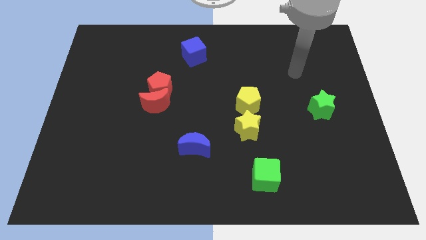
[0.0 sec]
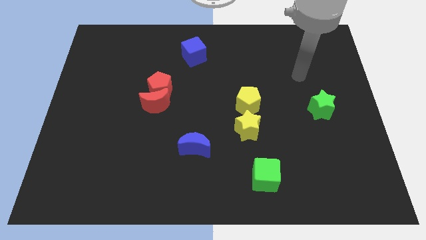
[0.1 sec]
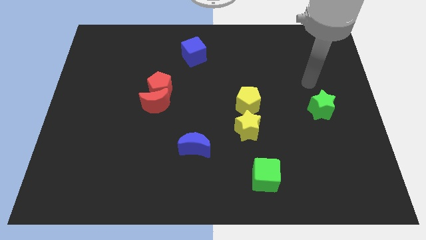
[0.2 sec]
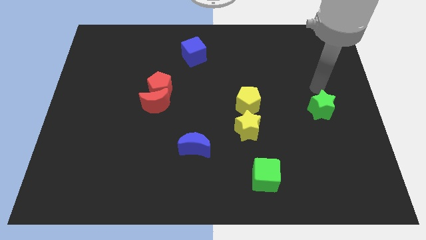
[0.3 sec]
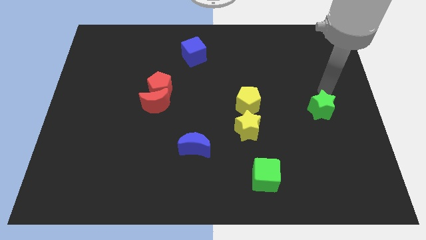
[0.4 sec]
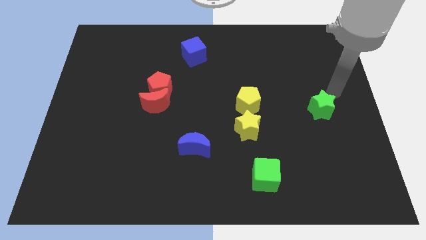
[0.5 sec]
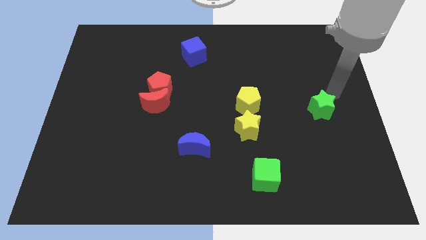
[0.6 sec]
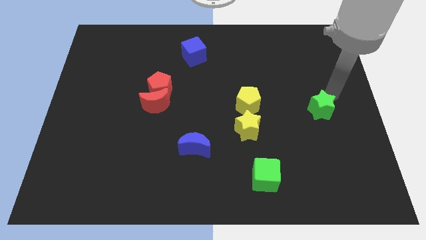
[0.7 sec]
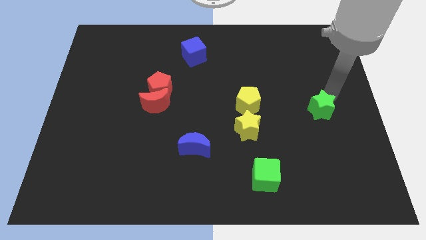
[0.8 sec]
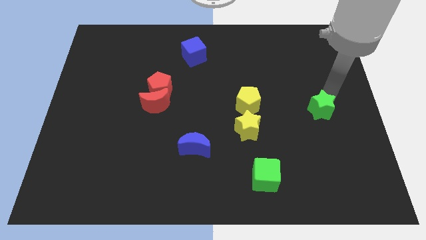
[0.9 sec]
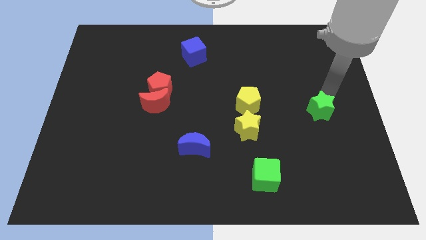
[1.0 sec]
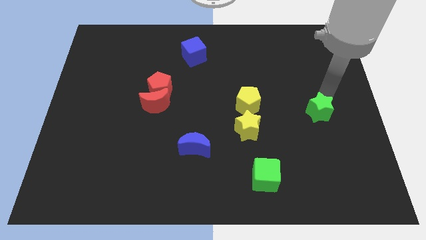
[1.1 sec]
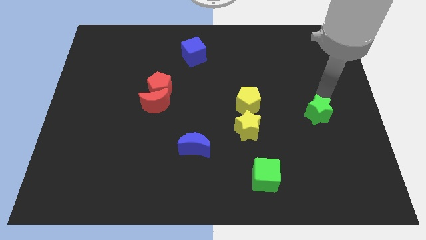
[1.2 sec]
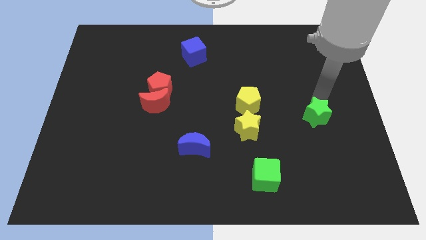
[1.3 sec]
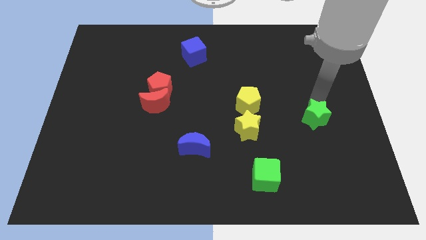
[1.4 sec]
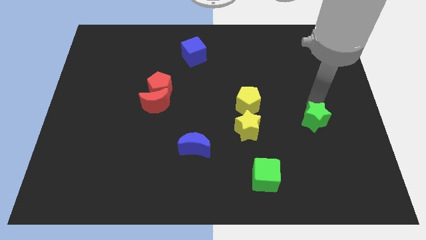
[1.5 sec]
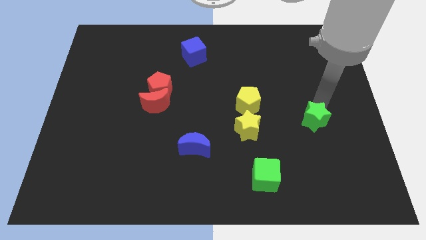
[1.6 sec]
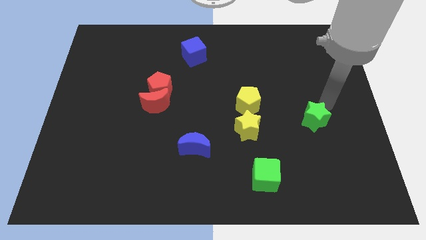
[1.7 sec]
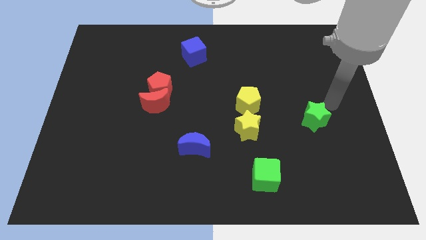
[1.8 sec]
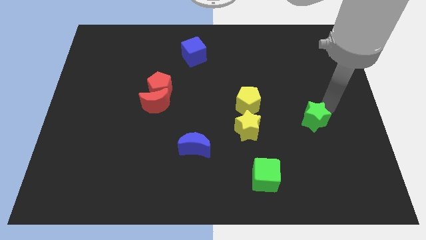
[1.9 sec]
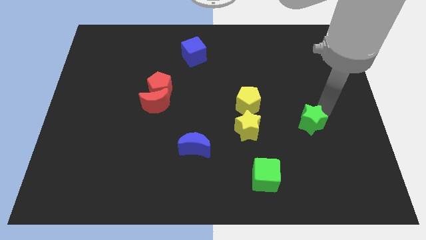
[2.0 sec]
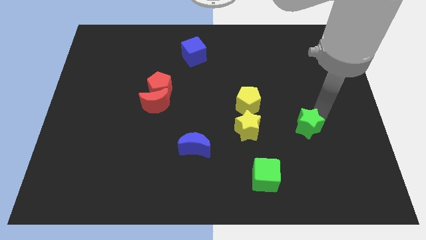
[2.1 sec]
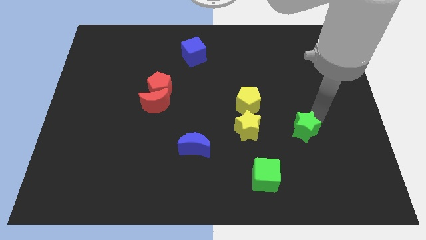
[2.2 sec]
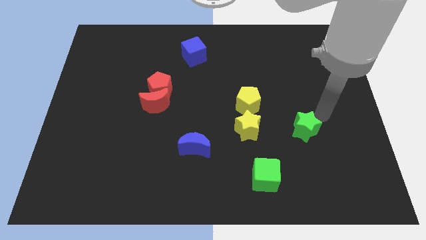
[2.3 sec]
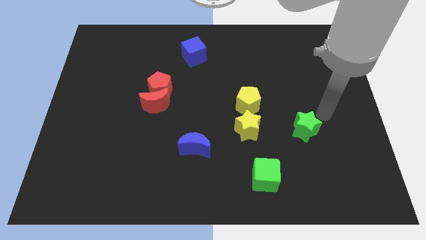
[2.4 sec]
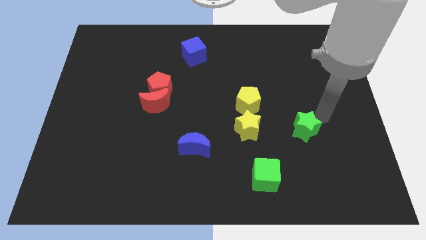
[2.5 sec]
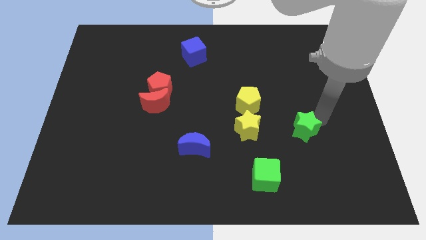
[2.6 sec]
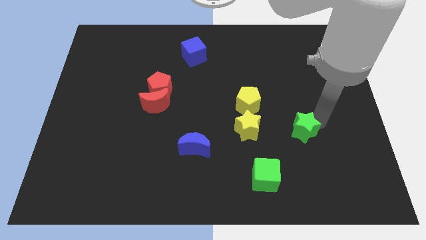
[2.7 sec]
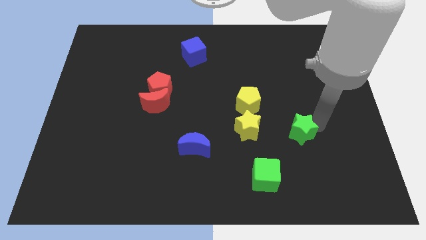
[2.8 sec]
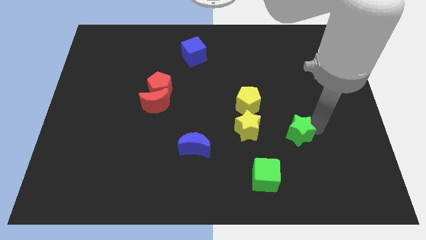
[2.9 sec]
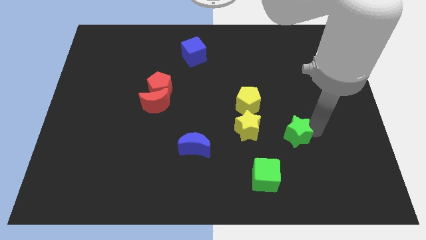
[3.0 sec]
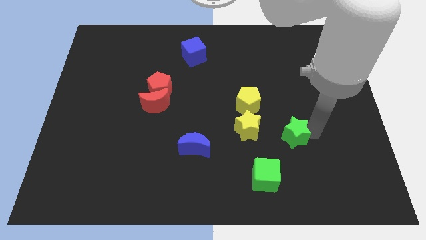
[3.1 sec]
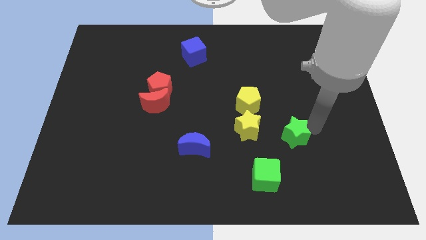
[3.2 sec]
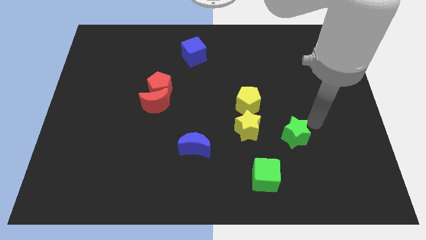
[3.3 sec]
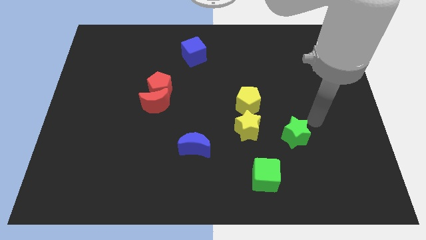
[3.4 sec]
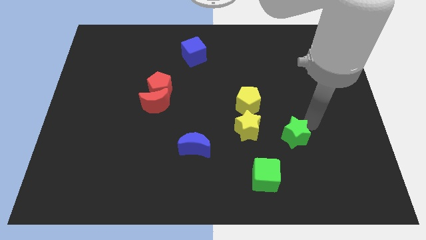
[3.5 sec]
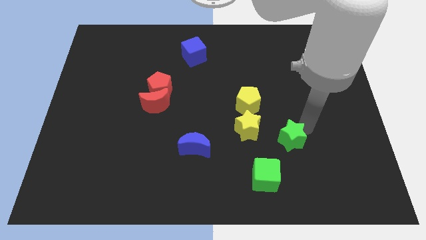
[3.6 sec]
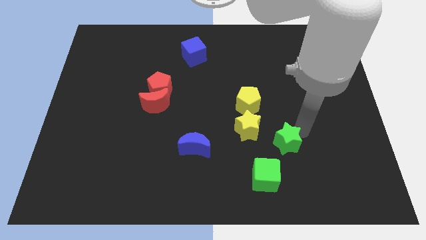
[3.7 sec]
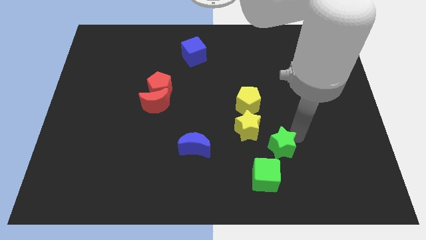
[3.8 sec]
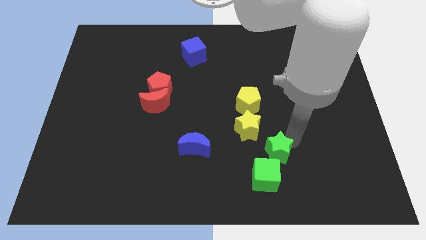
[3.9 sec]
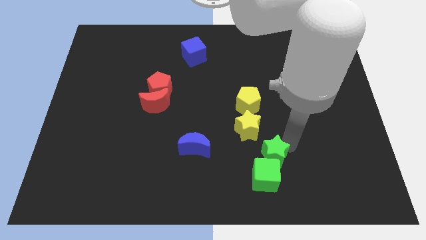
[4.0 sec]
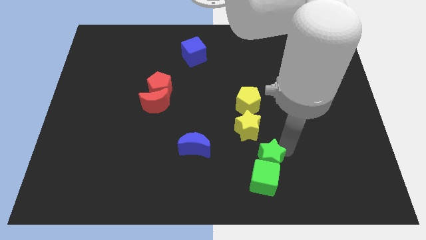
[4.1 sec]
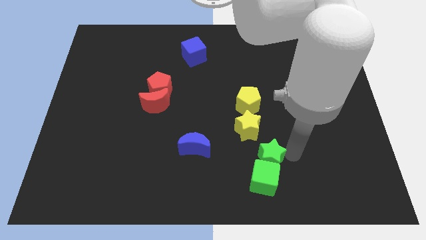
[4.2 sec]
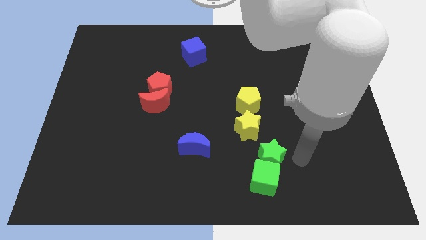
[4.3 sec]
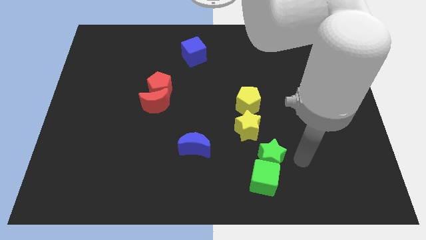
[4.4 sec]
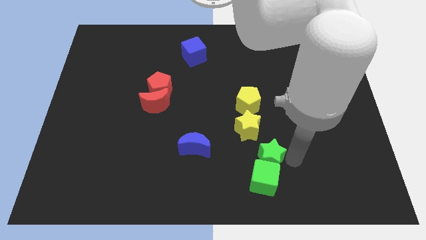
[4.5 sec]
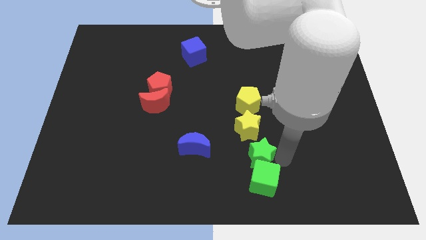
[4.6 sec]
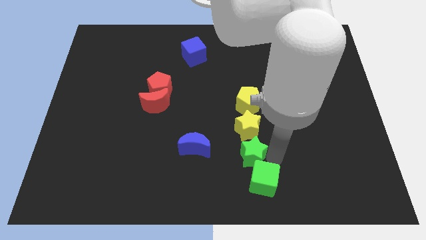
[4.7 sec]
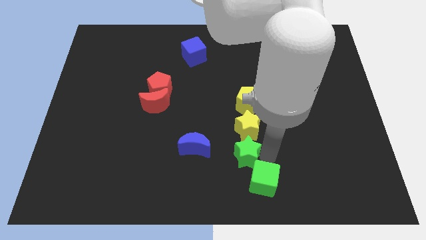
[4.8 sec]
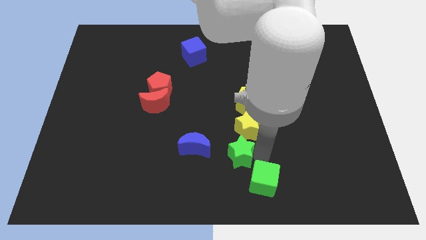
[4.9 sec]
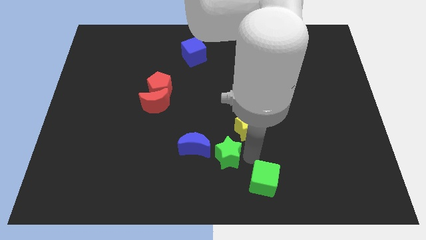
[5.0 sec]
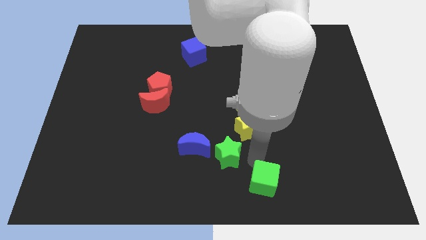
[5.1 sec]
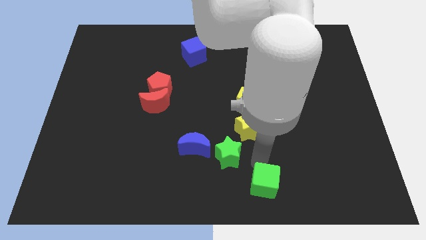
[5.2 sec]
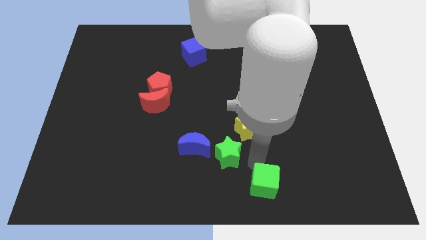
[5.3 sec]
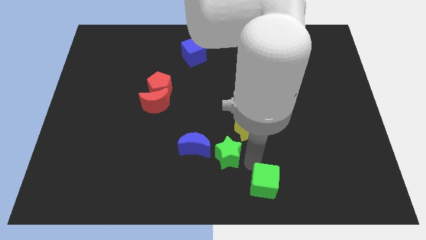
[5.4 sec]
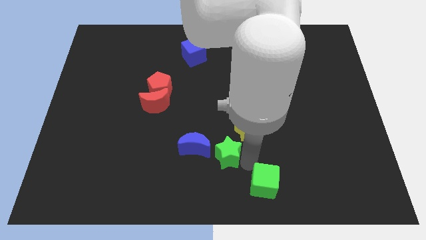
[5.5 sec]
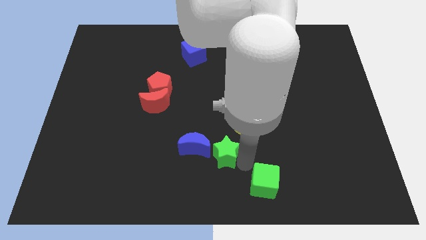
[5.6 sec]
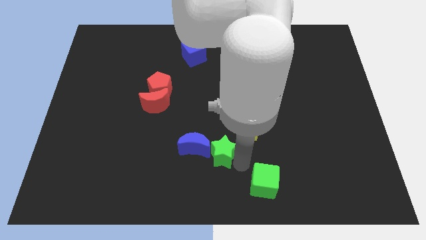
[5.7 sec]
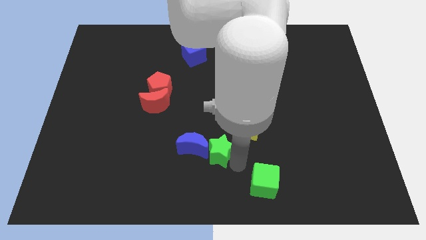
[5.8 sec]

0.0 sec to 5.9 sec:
move the green star towards the blue moon

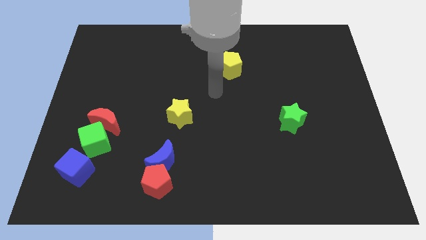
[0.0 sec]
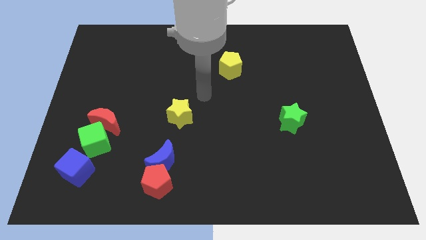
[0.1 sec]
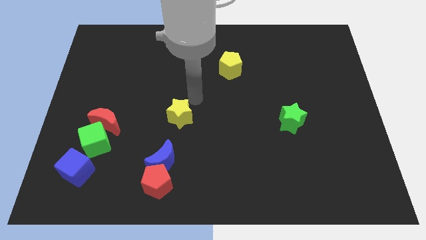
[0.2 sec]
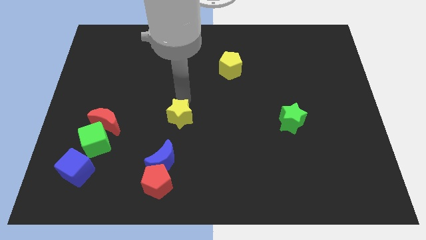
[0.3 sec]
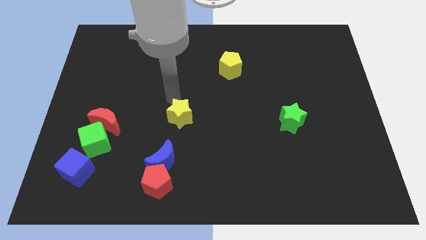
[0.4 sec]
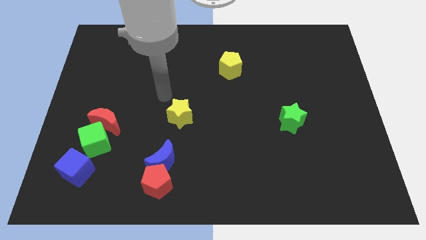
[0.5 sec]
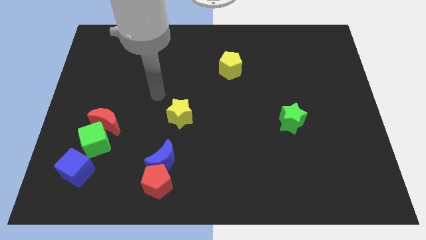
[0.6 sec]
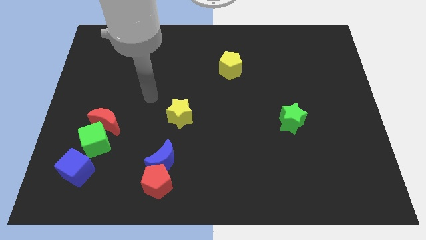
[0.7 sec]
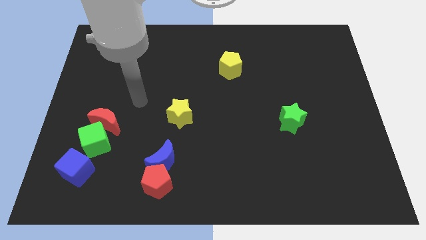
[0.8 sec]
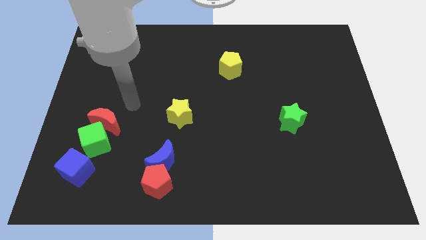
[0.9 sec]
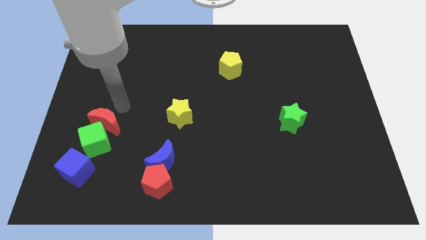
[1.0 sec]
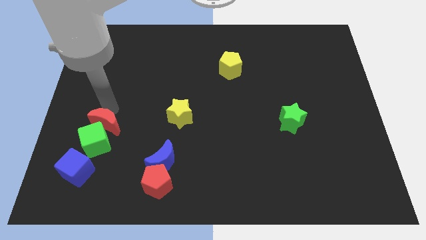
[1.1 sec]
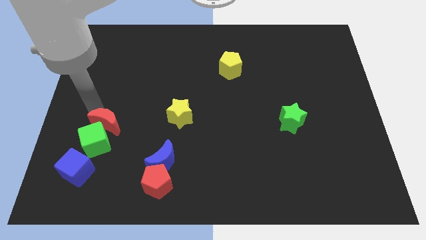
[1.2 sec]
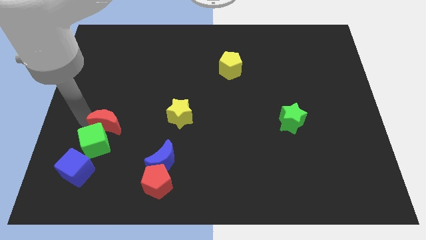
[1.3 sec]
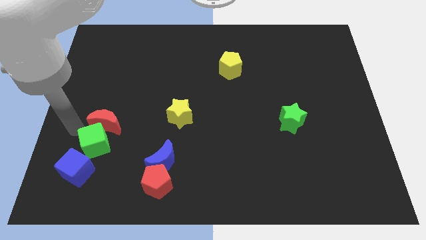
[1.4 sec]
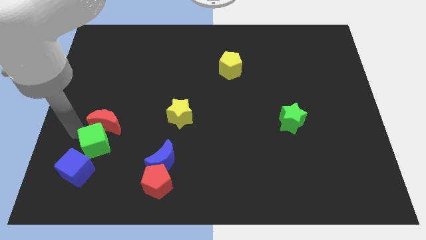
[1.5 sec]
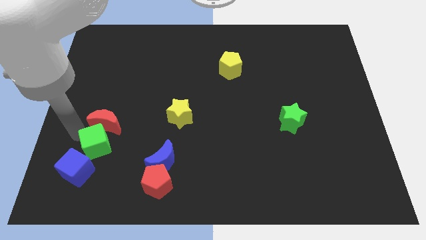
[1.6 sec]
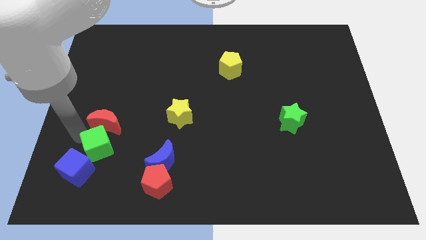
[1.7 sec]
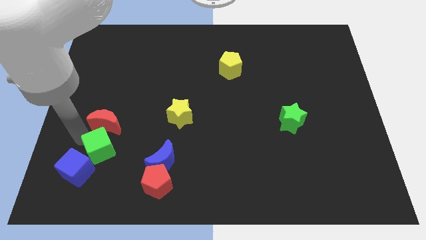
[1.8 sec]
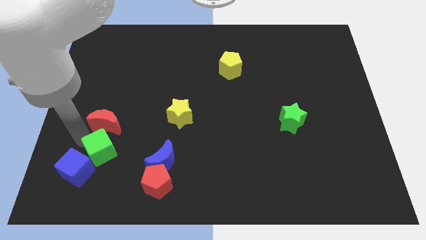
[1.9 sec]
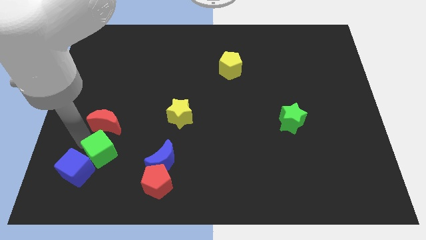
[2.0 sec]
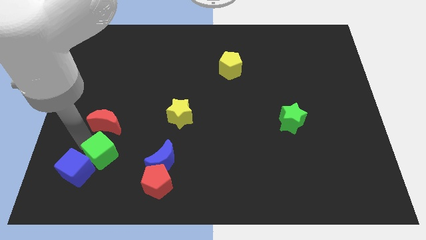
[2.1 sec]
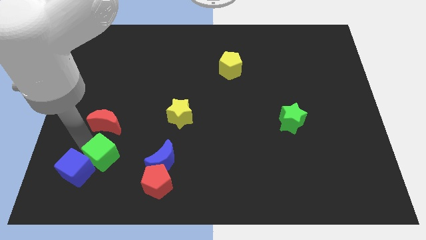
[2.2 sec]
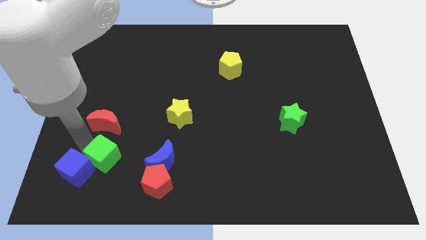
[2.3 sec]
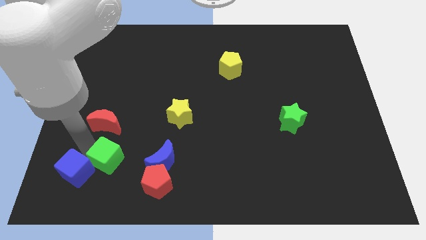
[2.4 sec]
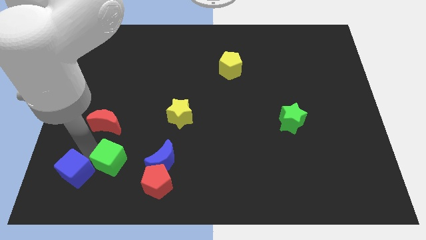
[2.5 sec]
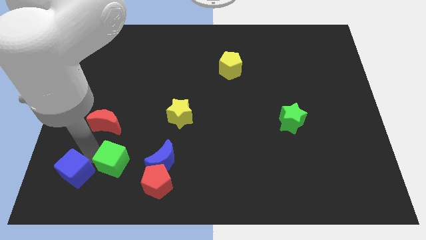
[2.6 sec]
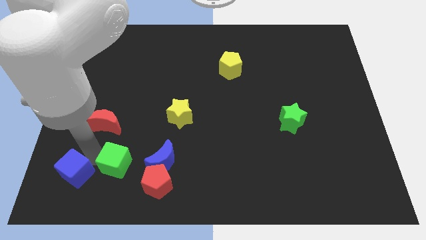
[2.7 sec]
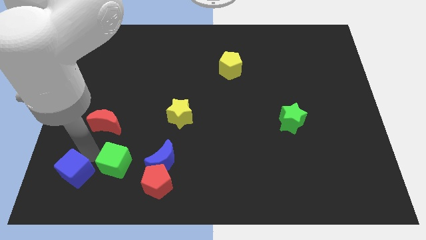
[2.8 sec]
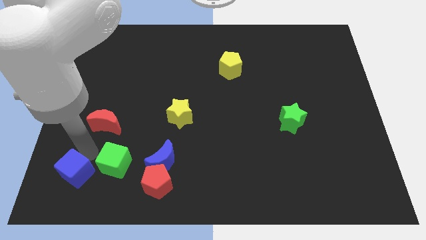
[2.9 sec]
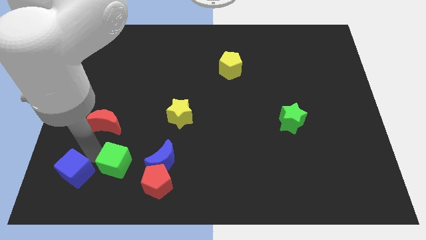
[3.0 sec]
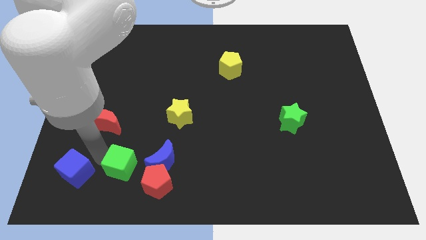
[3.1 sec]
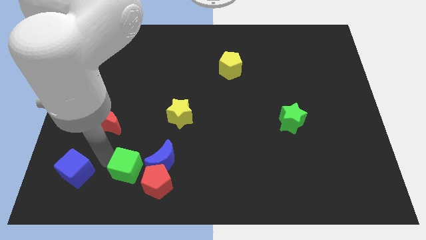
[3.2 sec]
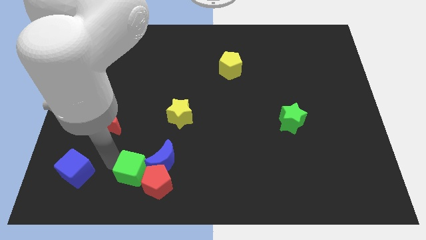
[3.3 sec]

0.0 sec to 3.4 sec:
slide the green cube to the red pentagon
